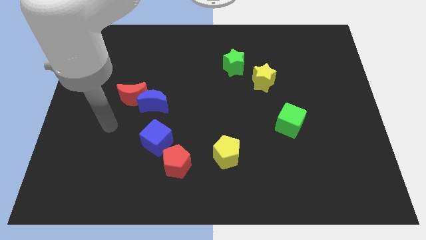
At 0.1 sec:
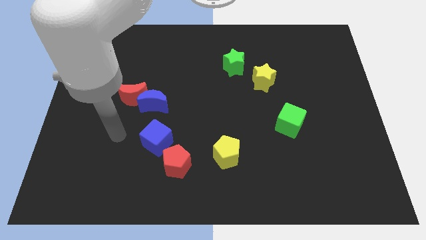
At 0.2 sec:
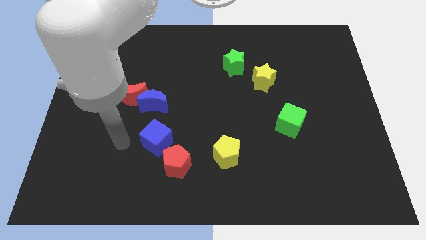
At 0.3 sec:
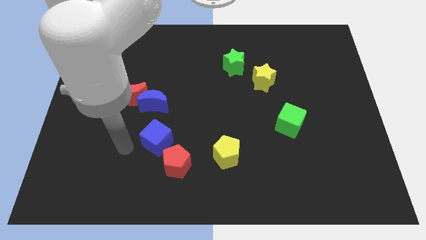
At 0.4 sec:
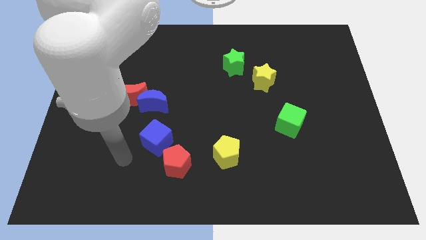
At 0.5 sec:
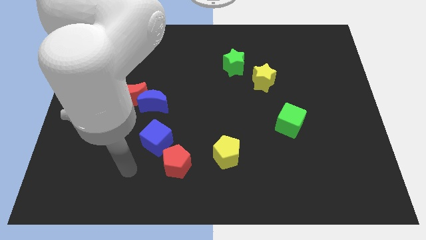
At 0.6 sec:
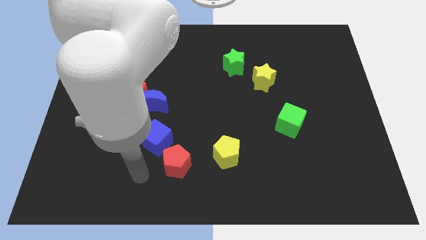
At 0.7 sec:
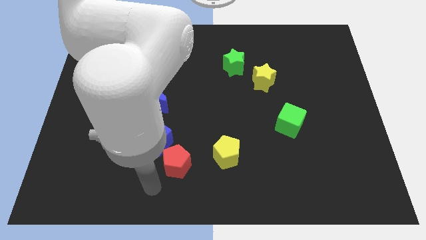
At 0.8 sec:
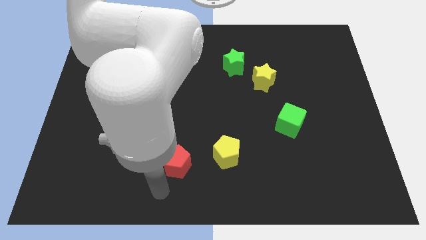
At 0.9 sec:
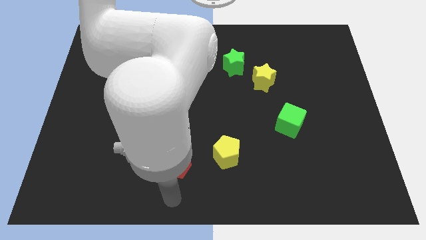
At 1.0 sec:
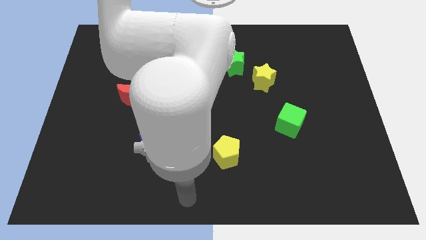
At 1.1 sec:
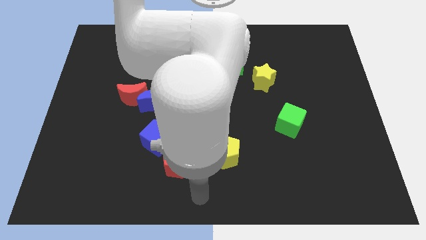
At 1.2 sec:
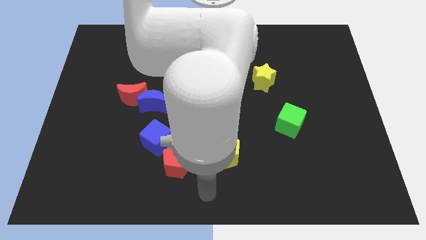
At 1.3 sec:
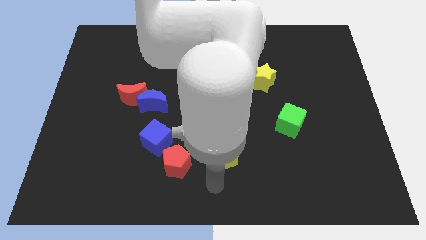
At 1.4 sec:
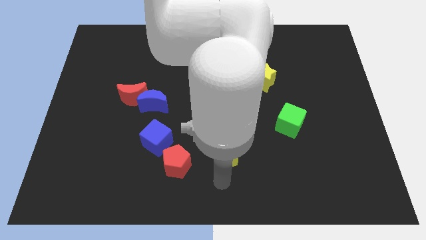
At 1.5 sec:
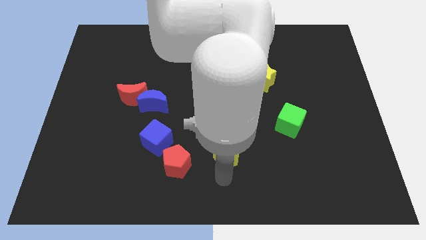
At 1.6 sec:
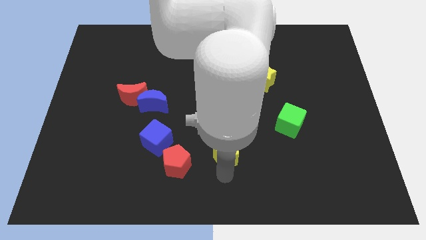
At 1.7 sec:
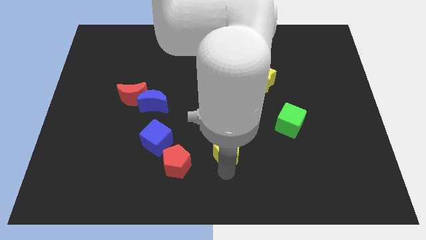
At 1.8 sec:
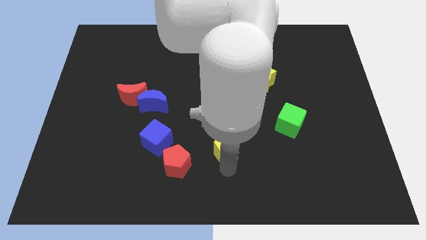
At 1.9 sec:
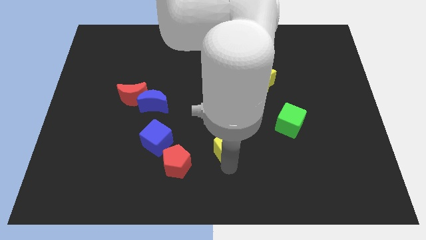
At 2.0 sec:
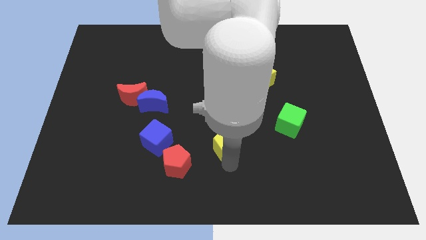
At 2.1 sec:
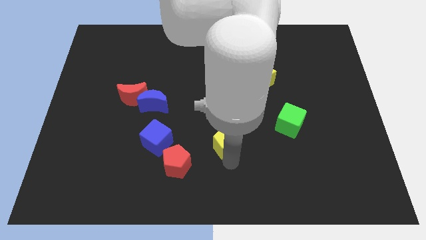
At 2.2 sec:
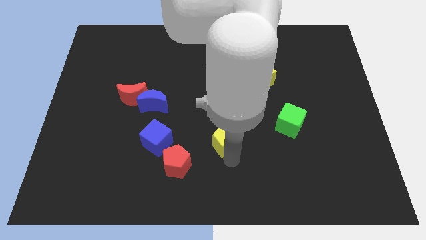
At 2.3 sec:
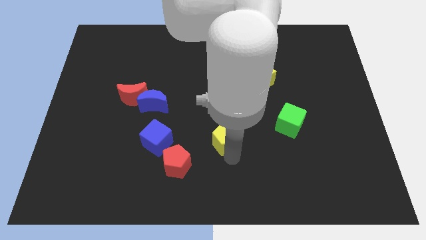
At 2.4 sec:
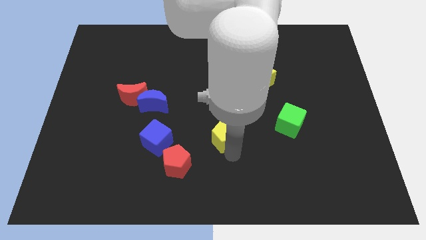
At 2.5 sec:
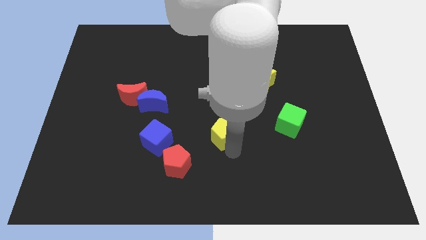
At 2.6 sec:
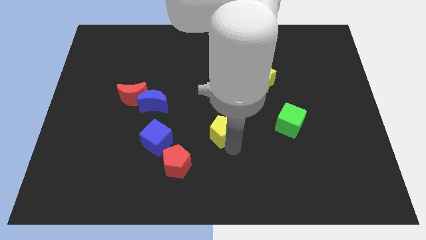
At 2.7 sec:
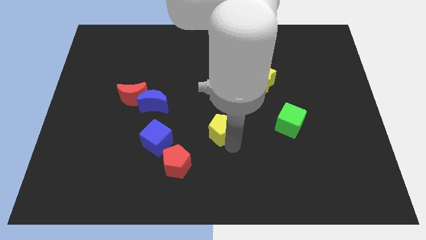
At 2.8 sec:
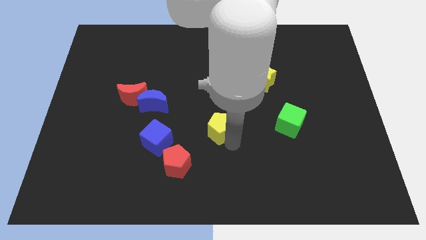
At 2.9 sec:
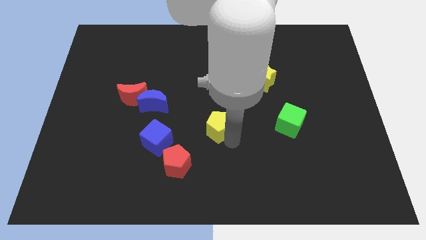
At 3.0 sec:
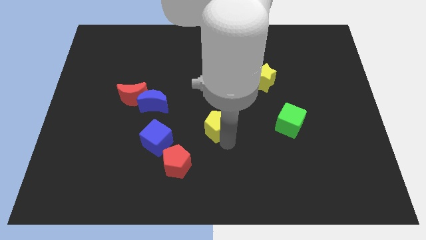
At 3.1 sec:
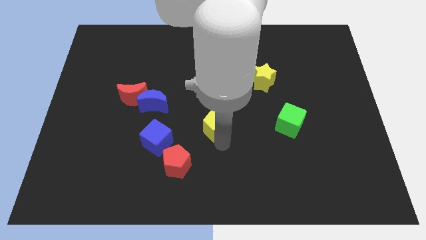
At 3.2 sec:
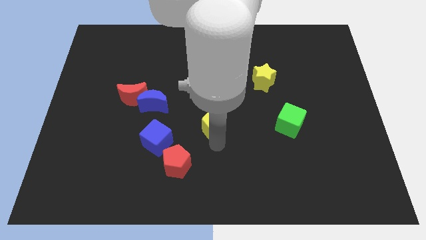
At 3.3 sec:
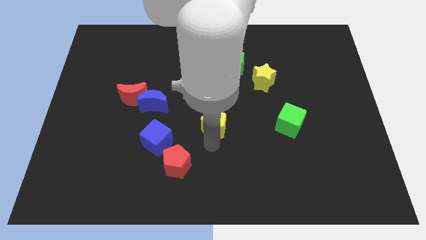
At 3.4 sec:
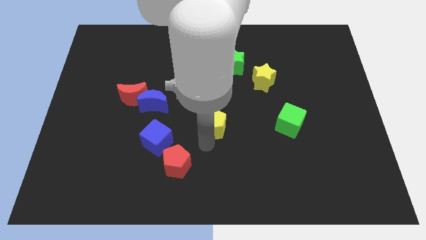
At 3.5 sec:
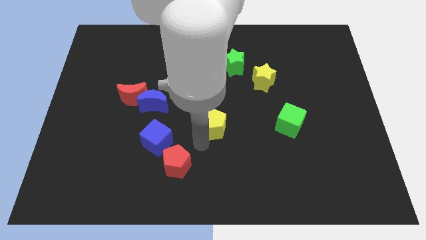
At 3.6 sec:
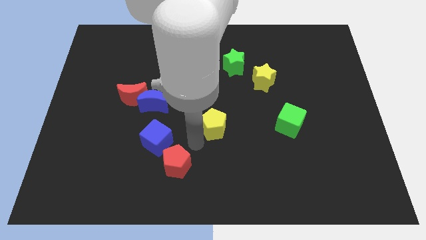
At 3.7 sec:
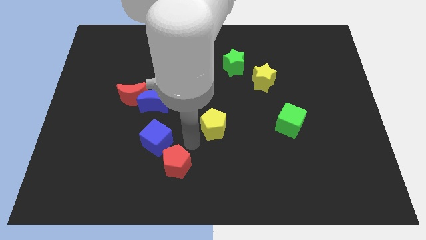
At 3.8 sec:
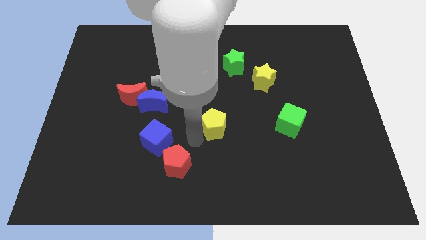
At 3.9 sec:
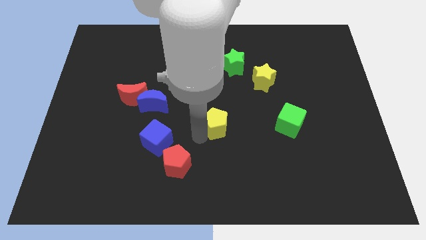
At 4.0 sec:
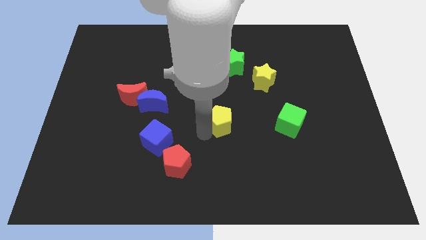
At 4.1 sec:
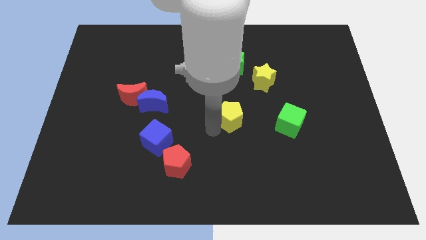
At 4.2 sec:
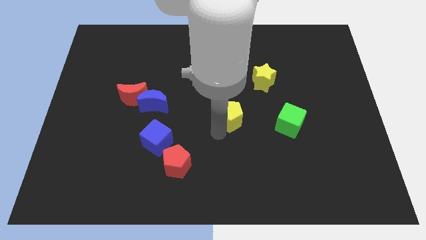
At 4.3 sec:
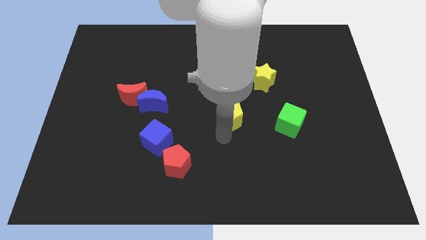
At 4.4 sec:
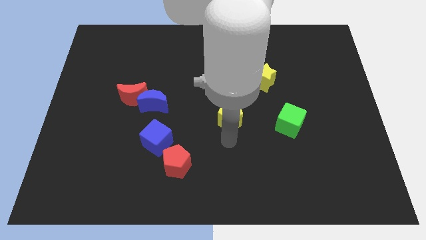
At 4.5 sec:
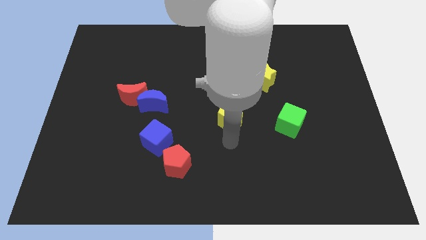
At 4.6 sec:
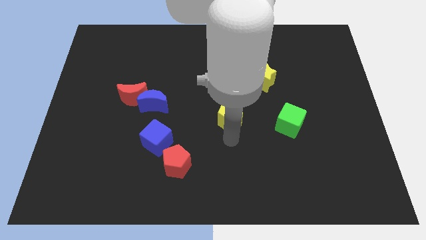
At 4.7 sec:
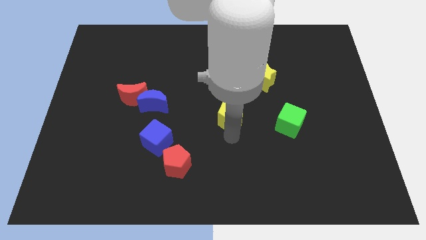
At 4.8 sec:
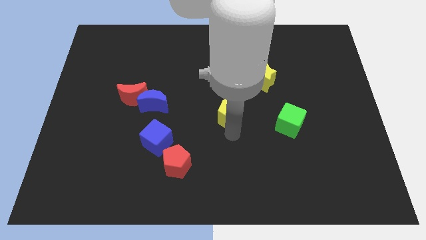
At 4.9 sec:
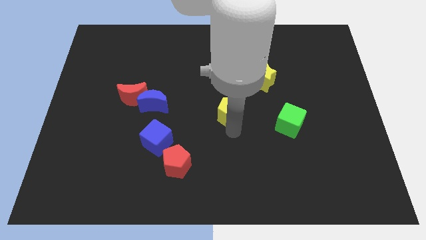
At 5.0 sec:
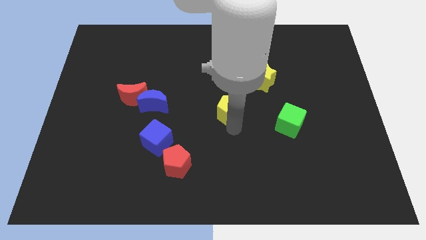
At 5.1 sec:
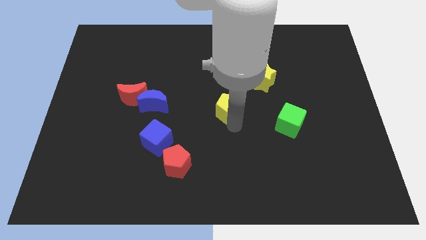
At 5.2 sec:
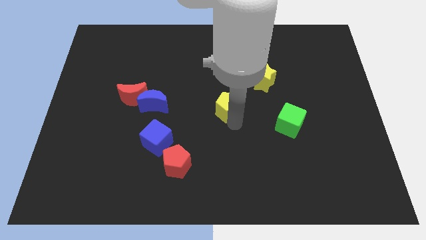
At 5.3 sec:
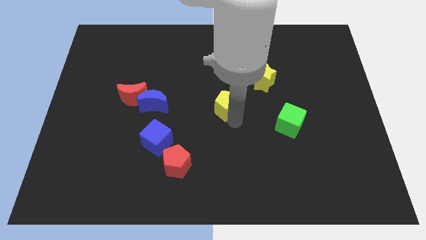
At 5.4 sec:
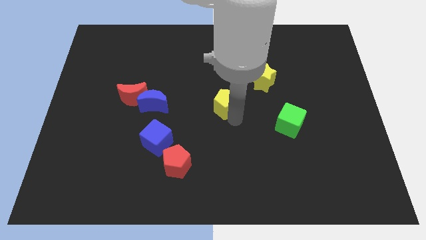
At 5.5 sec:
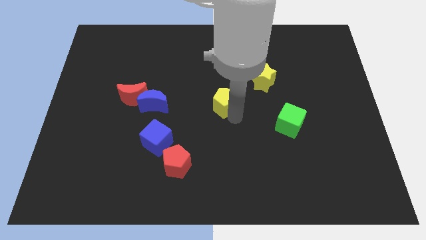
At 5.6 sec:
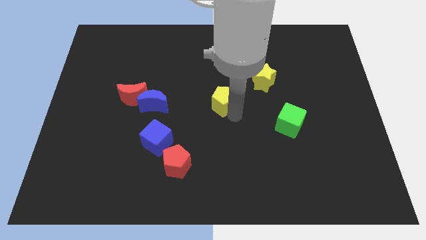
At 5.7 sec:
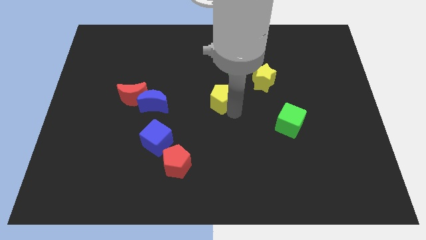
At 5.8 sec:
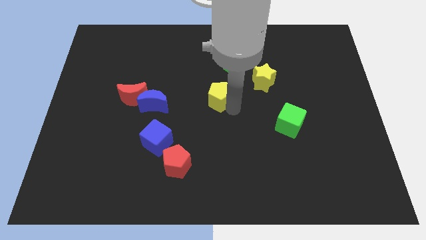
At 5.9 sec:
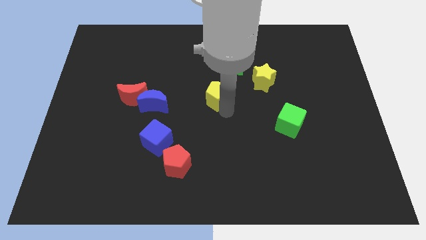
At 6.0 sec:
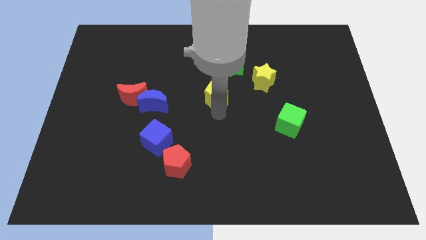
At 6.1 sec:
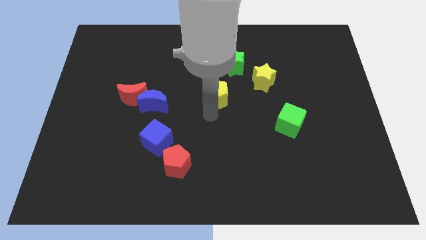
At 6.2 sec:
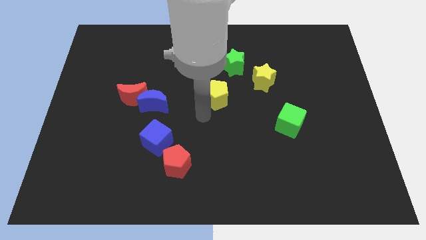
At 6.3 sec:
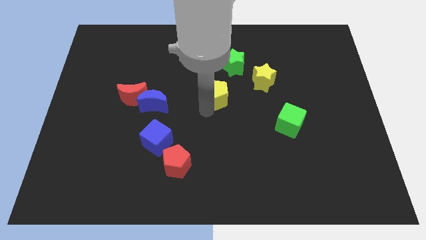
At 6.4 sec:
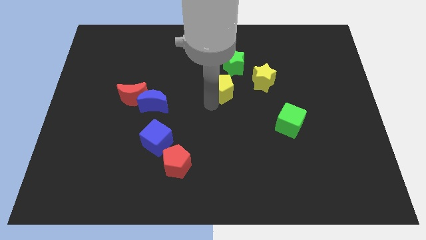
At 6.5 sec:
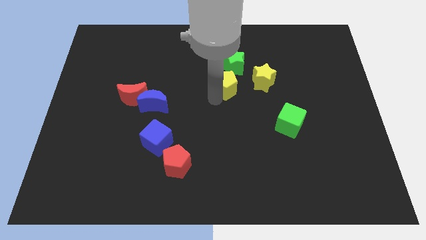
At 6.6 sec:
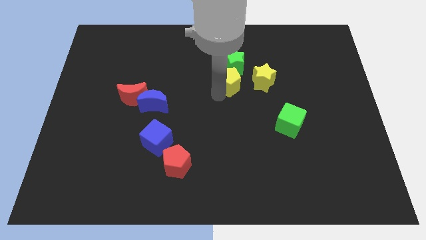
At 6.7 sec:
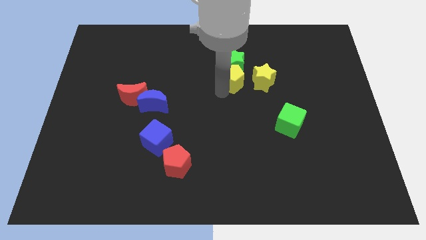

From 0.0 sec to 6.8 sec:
slide the yellow pentagon next to the green star
